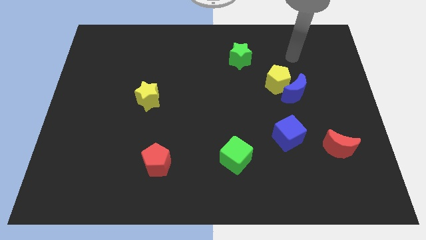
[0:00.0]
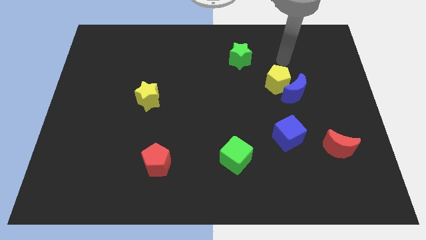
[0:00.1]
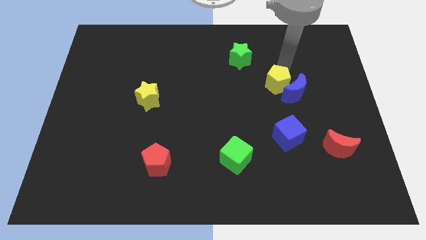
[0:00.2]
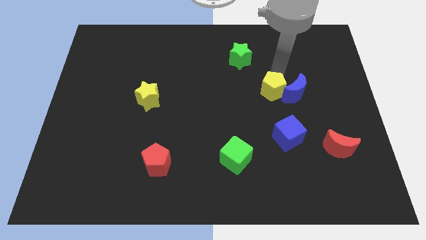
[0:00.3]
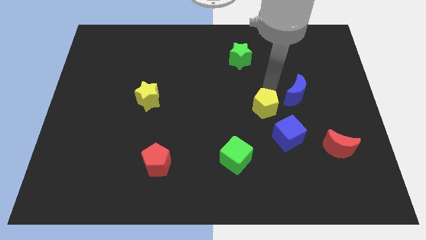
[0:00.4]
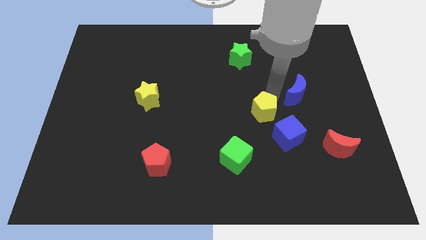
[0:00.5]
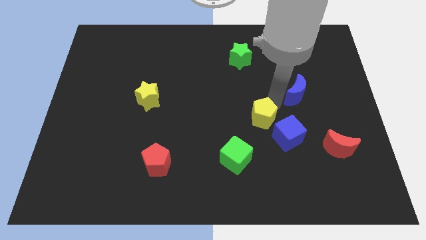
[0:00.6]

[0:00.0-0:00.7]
move the blue moon away from the yellow pentagon

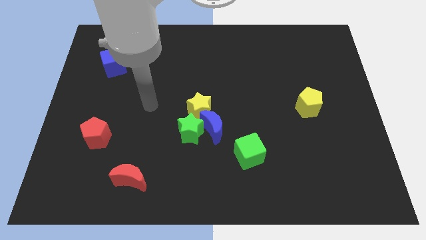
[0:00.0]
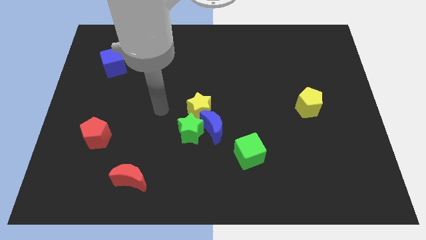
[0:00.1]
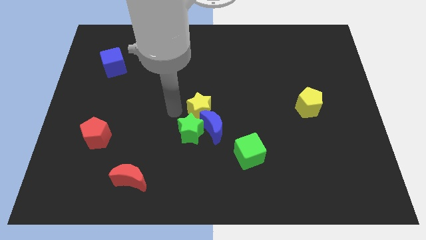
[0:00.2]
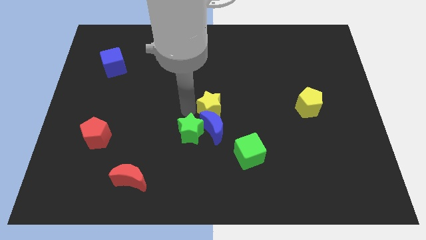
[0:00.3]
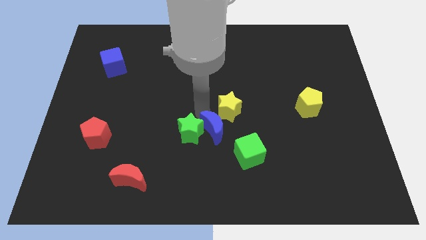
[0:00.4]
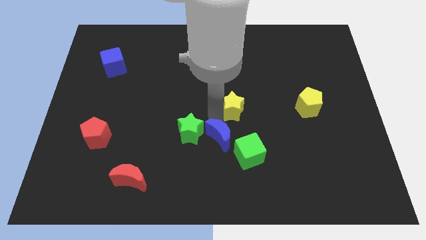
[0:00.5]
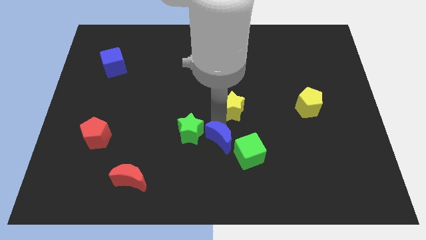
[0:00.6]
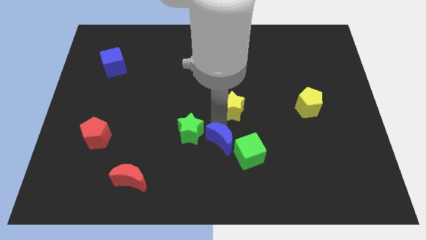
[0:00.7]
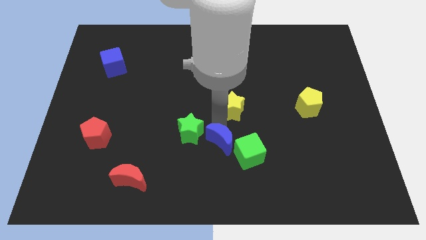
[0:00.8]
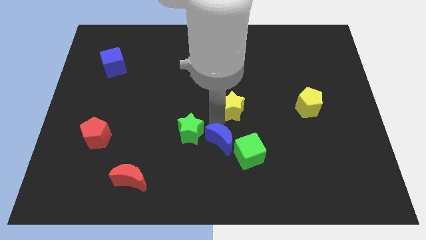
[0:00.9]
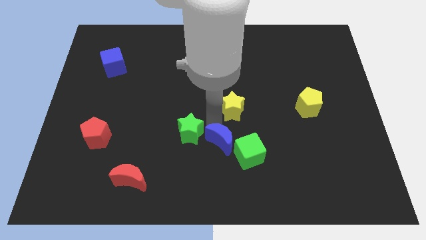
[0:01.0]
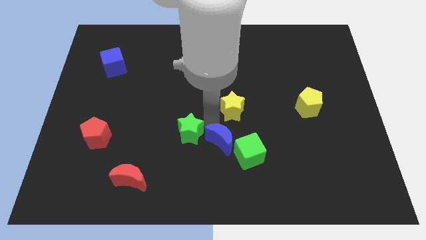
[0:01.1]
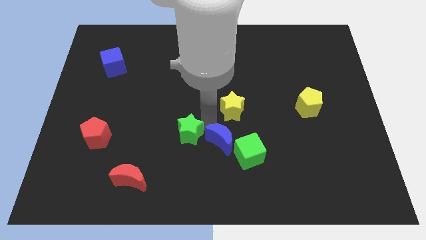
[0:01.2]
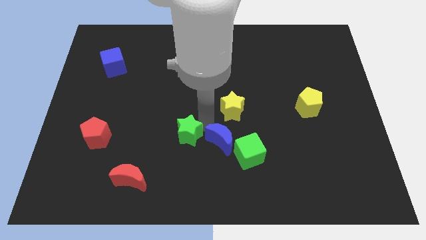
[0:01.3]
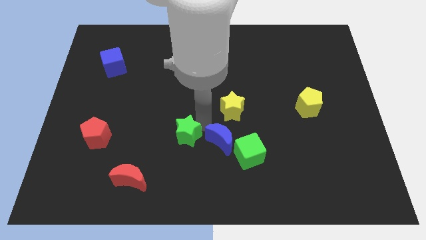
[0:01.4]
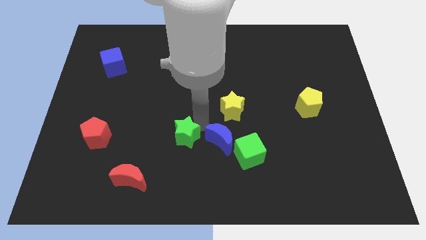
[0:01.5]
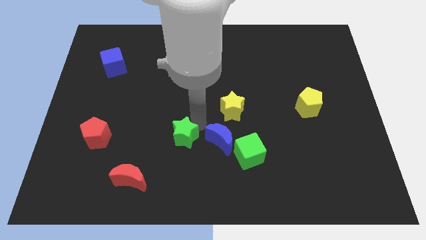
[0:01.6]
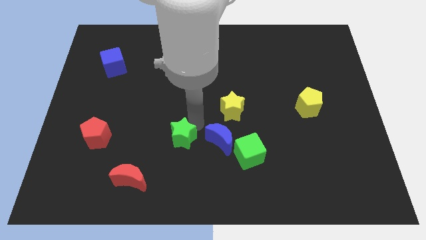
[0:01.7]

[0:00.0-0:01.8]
pull the green star apart from the blue moon and yellow star

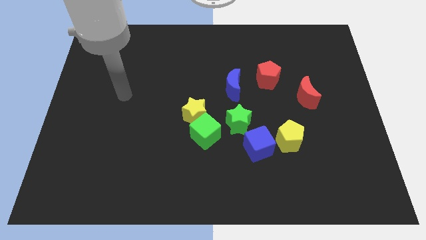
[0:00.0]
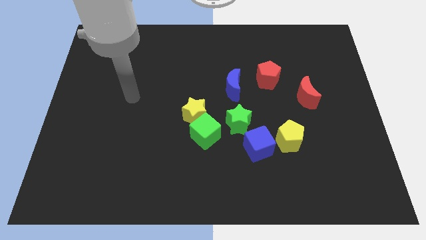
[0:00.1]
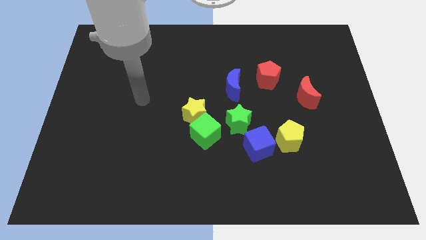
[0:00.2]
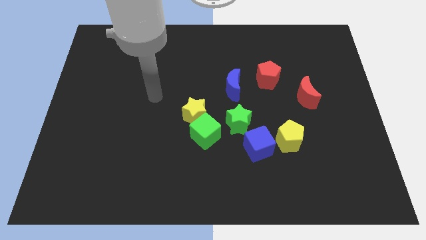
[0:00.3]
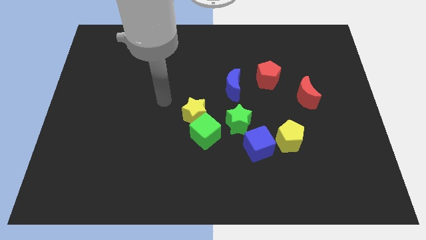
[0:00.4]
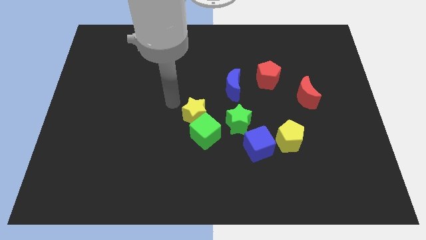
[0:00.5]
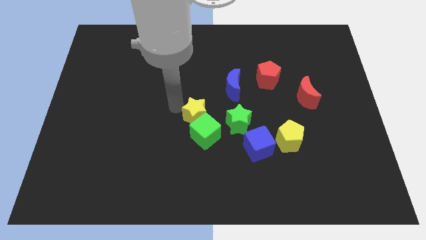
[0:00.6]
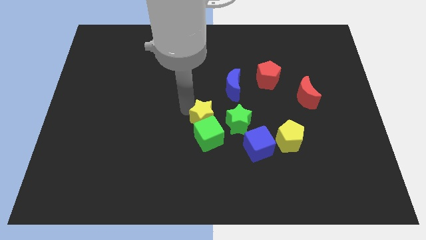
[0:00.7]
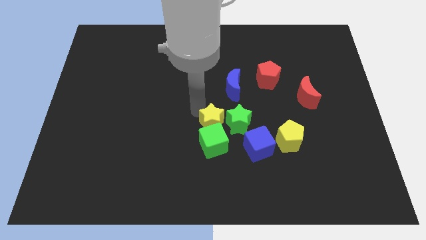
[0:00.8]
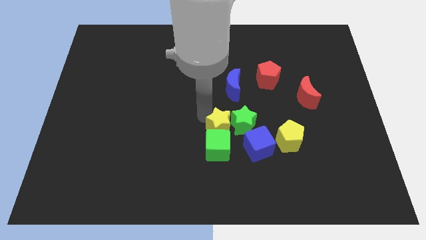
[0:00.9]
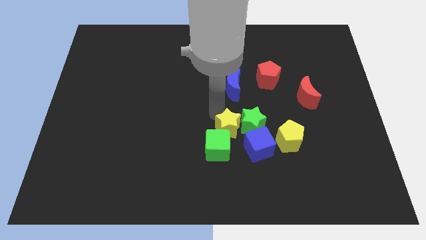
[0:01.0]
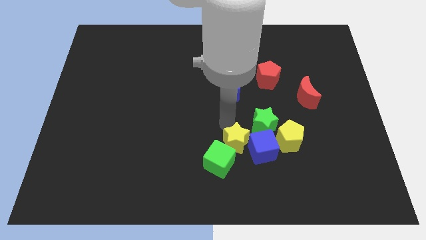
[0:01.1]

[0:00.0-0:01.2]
move the green cube away from the yellow star and green star

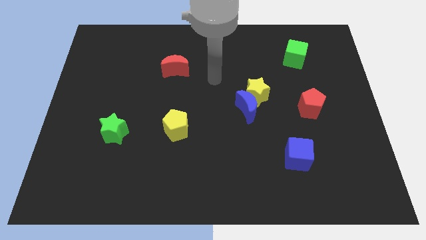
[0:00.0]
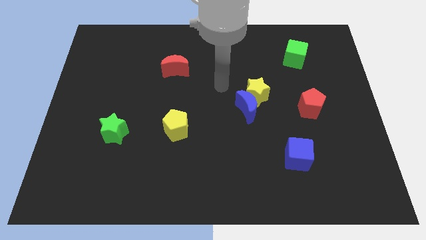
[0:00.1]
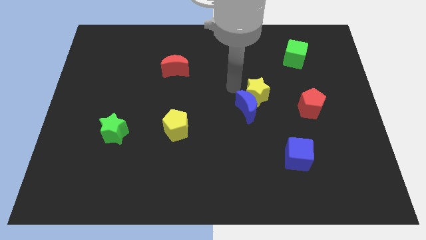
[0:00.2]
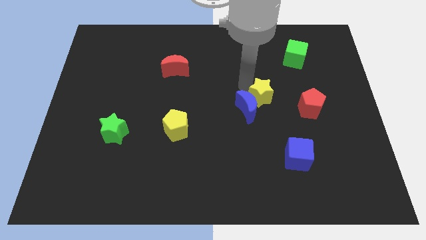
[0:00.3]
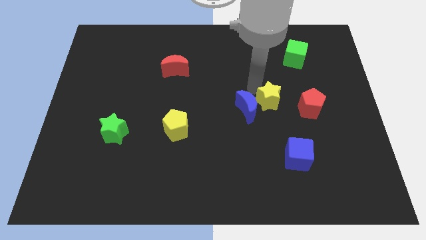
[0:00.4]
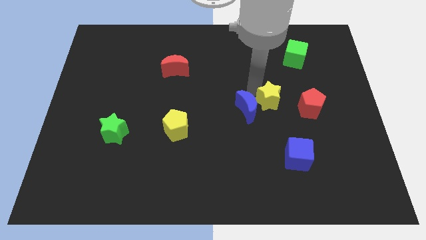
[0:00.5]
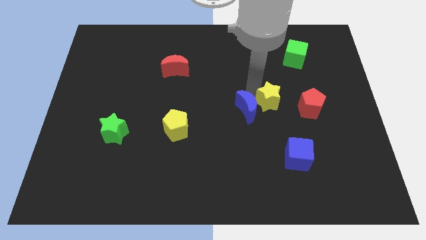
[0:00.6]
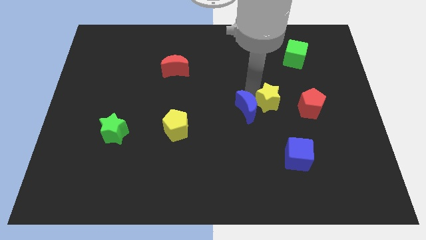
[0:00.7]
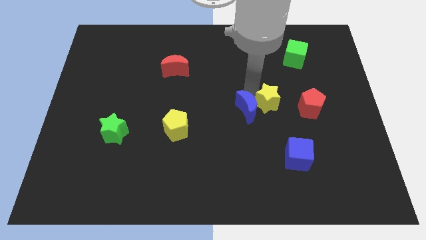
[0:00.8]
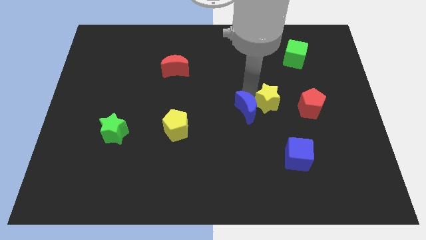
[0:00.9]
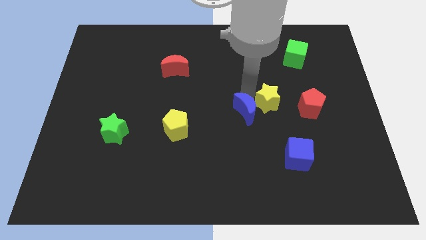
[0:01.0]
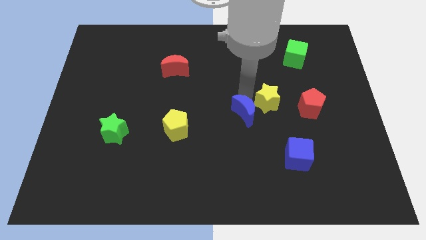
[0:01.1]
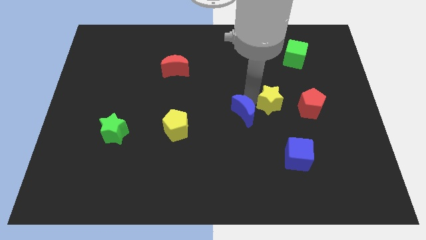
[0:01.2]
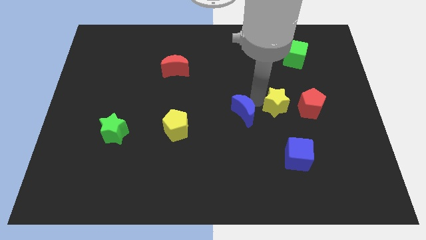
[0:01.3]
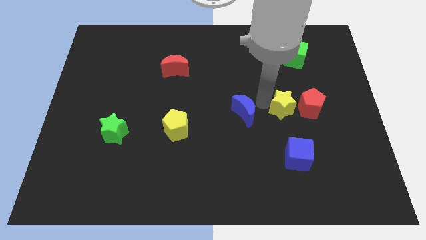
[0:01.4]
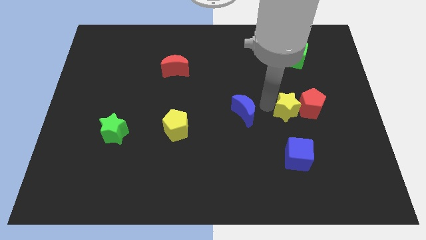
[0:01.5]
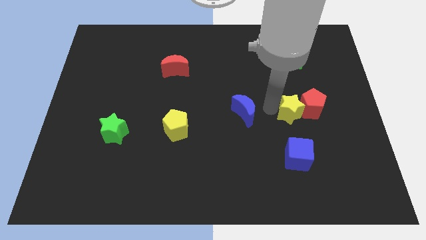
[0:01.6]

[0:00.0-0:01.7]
move the blue moon away from the yellow star

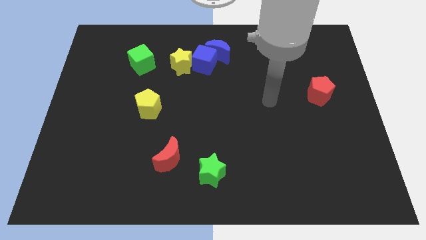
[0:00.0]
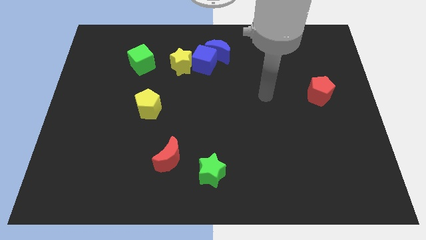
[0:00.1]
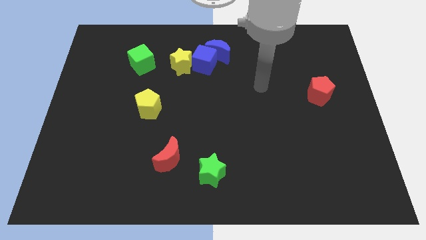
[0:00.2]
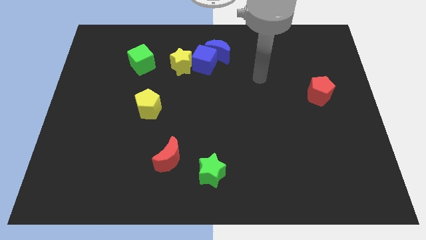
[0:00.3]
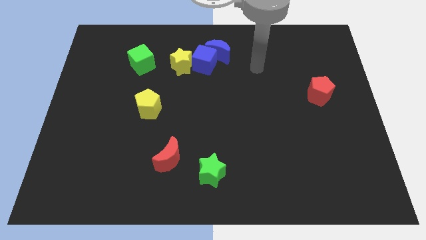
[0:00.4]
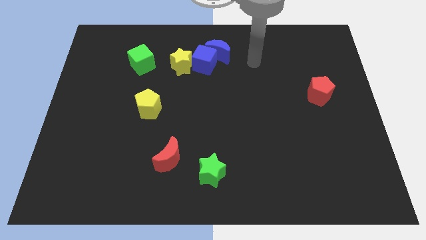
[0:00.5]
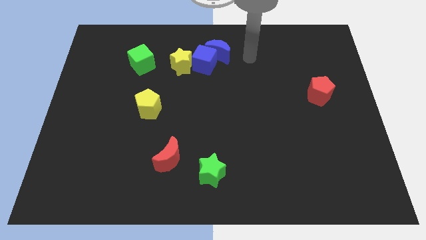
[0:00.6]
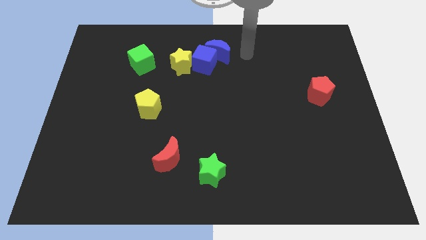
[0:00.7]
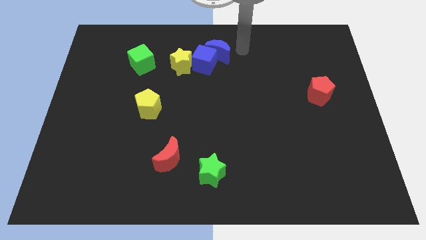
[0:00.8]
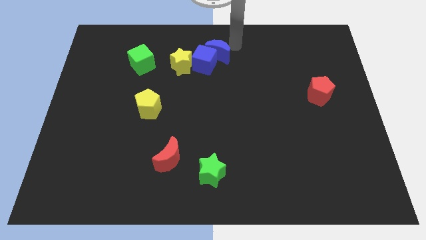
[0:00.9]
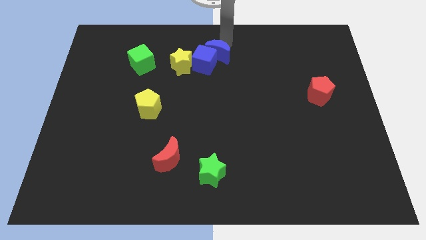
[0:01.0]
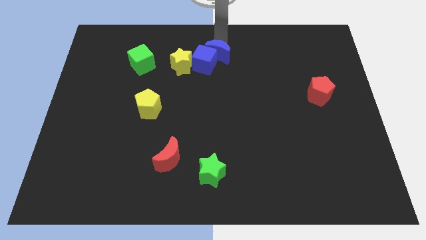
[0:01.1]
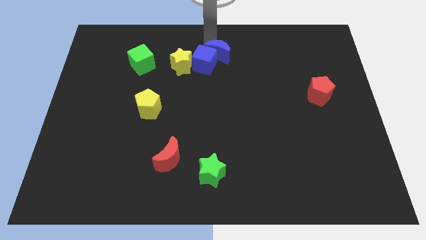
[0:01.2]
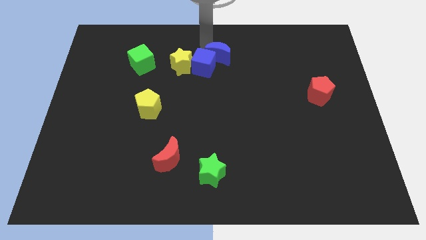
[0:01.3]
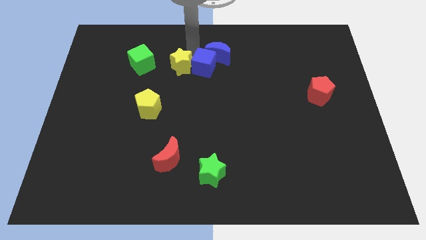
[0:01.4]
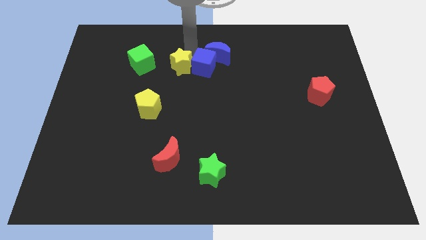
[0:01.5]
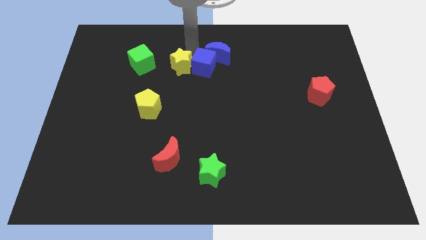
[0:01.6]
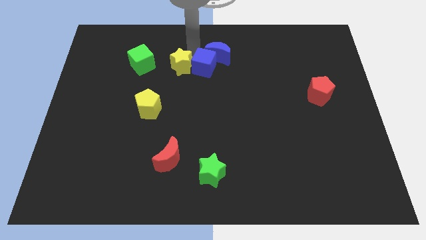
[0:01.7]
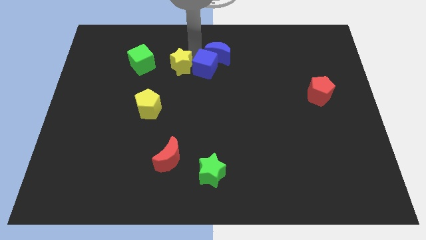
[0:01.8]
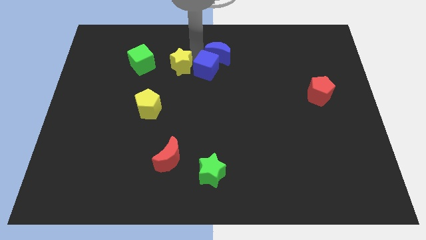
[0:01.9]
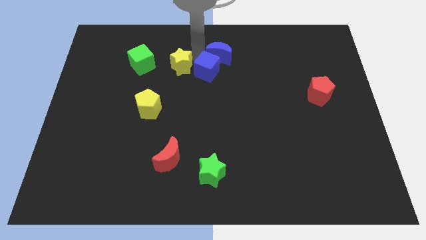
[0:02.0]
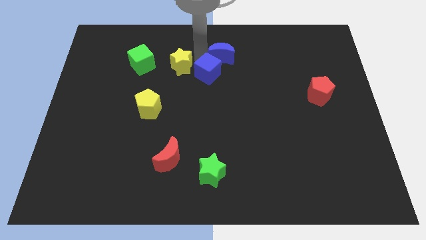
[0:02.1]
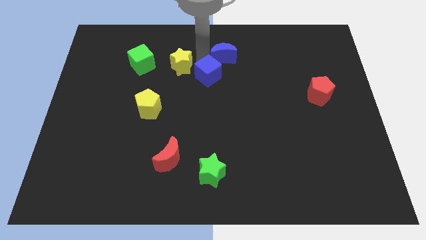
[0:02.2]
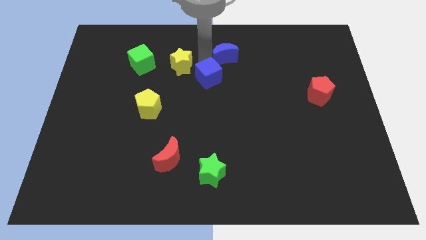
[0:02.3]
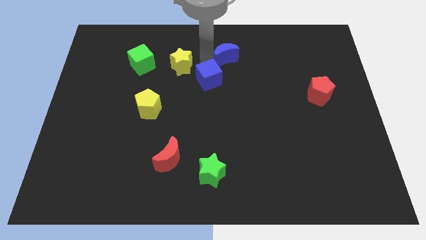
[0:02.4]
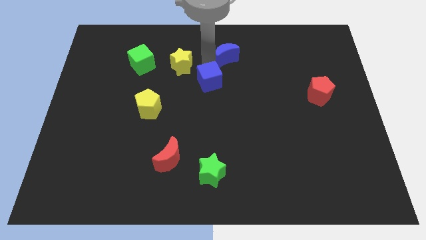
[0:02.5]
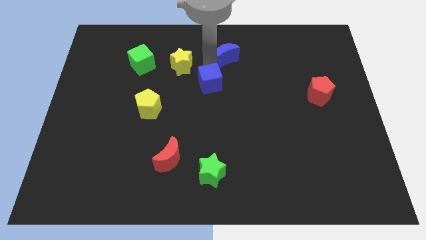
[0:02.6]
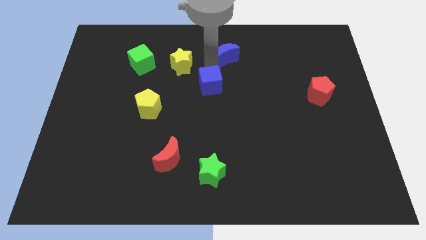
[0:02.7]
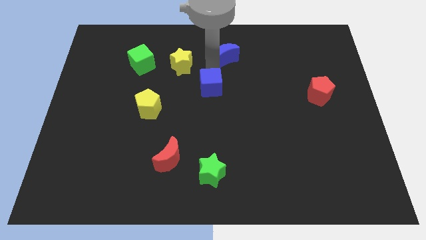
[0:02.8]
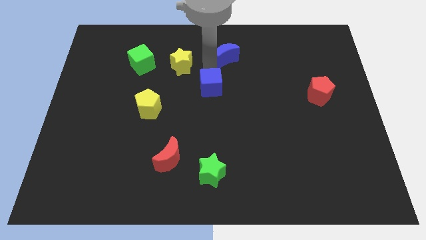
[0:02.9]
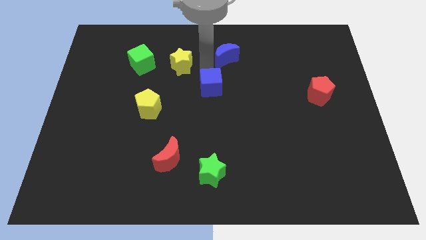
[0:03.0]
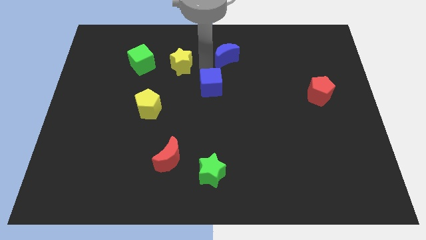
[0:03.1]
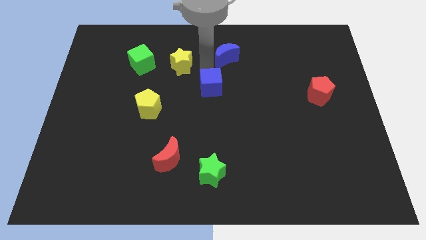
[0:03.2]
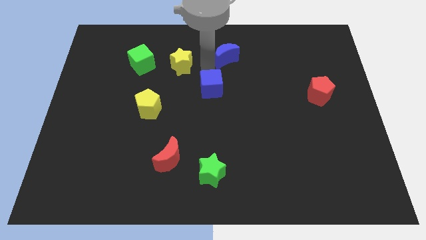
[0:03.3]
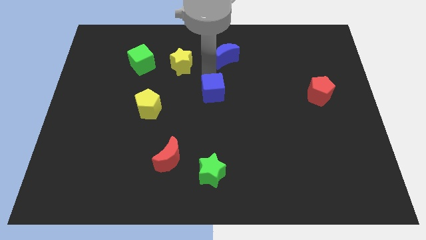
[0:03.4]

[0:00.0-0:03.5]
pull the blue cube apart from the blue moon and yellow star

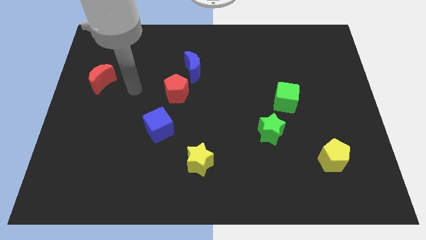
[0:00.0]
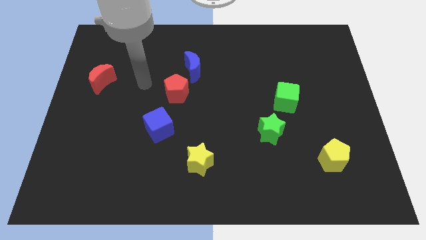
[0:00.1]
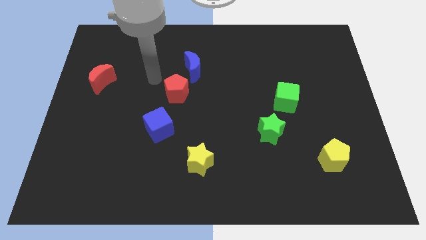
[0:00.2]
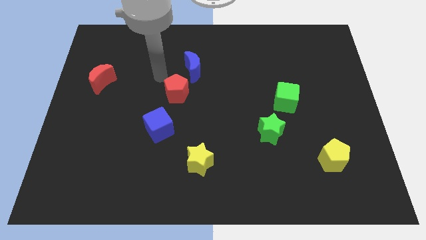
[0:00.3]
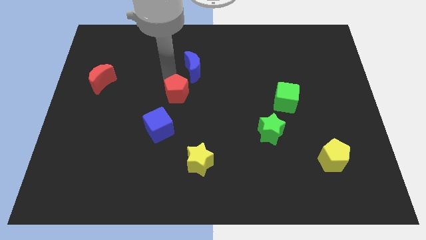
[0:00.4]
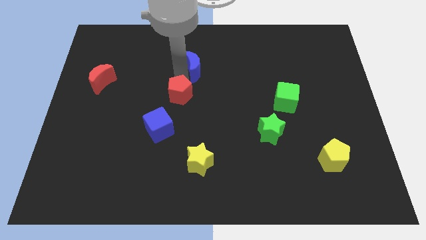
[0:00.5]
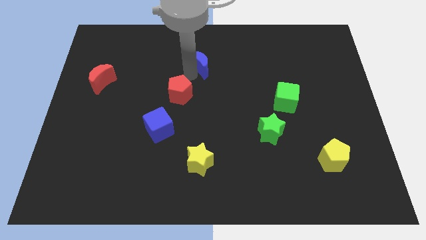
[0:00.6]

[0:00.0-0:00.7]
pull the red pentagon apart from the blue moon
